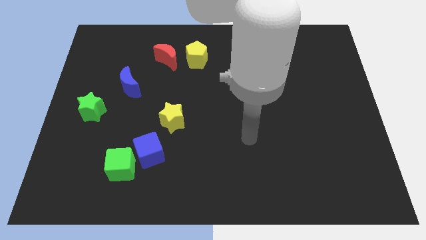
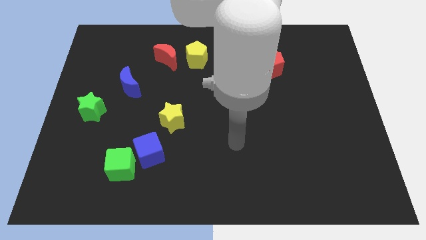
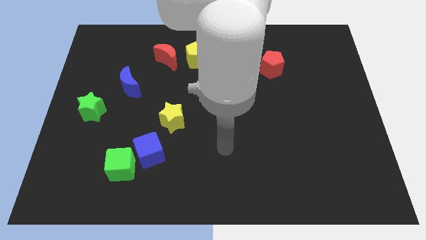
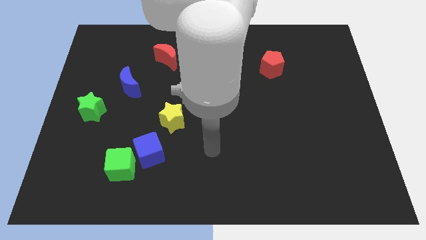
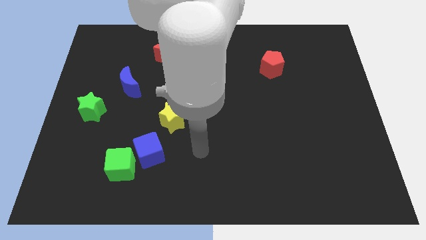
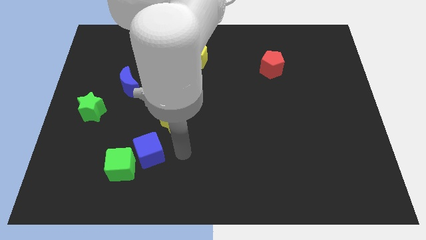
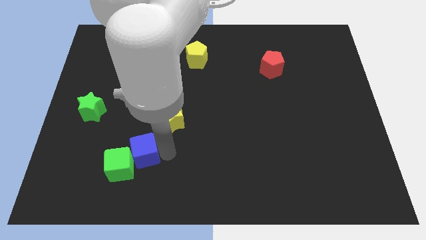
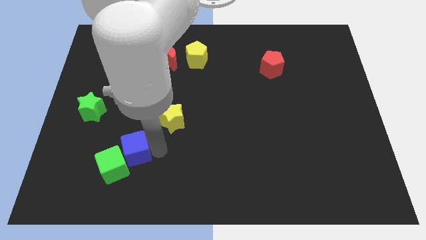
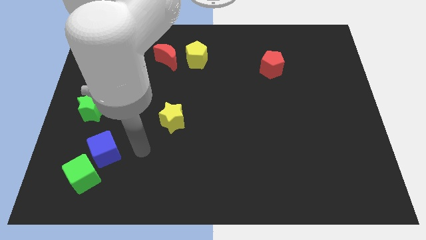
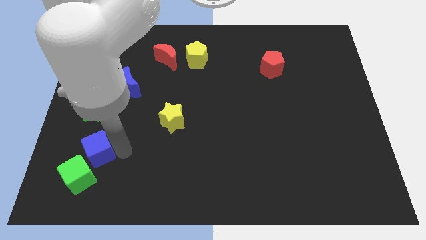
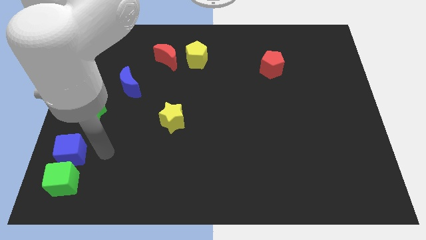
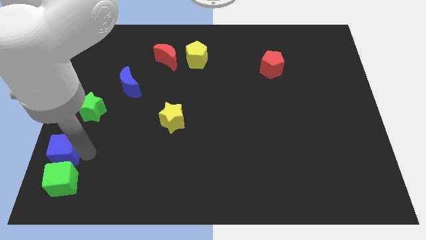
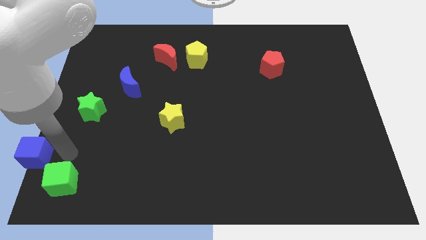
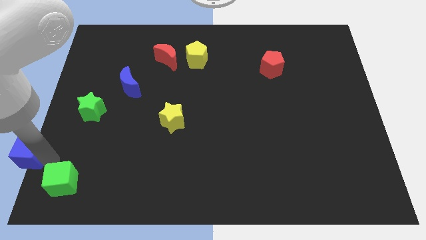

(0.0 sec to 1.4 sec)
move the green cube away from the blue cube

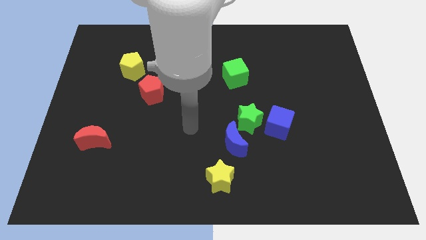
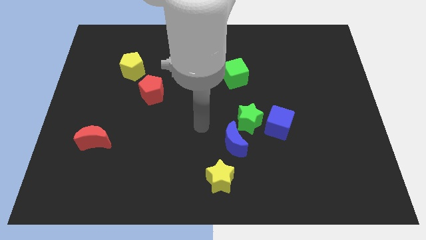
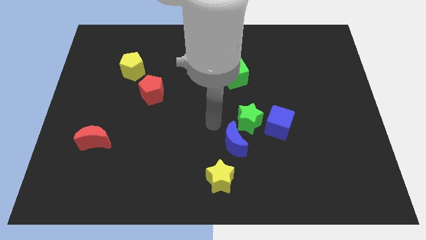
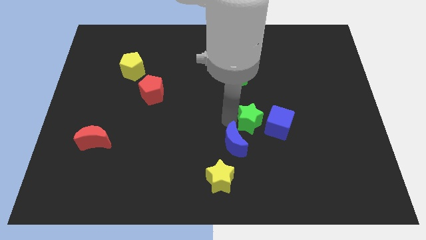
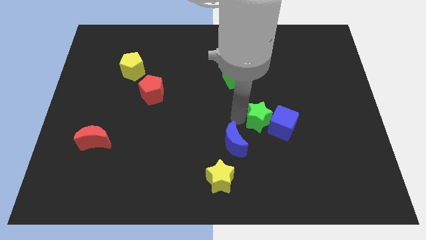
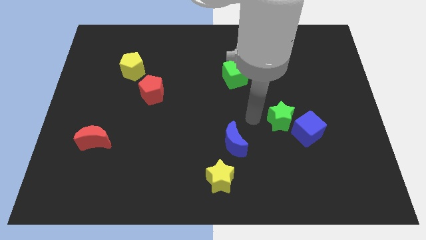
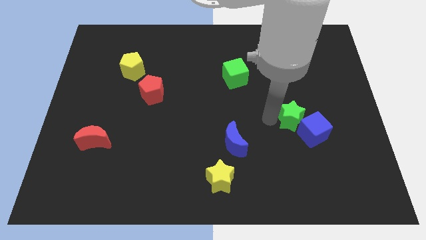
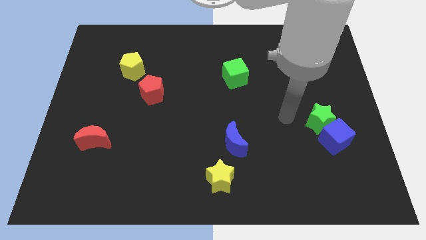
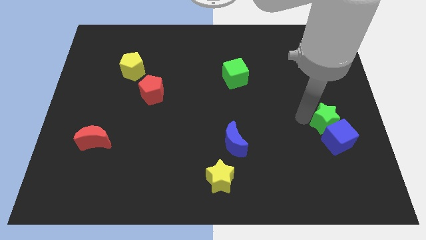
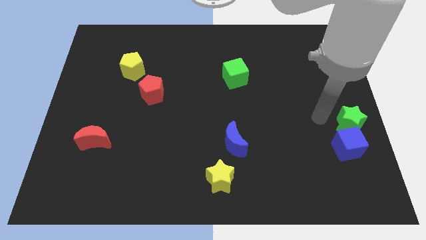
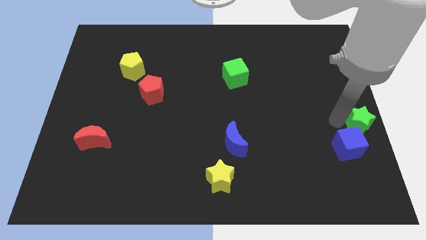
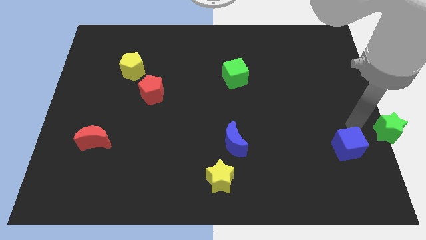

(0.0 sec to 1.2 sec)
pull the blue cube apart from the green star

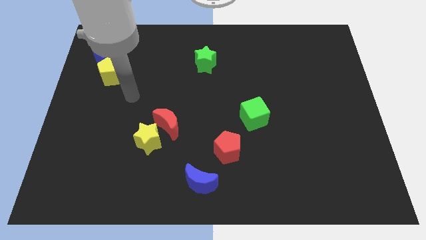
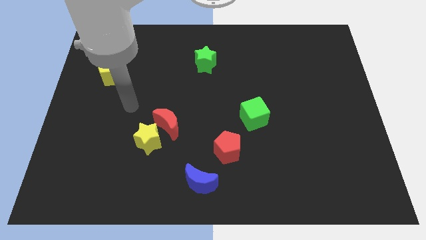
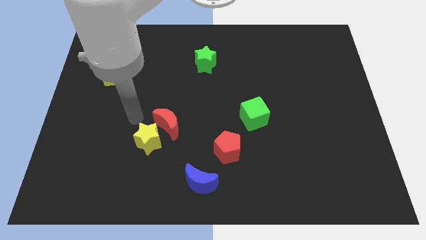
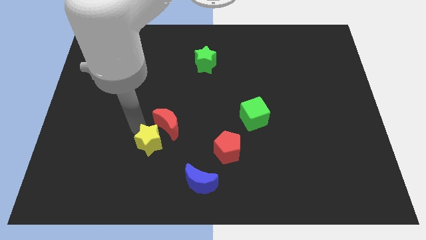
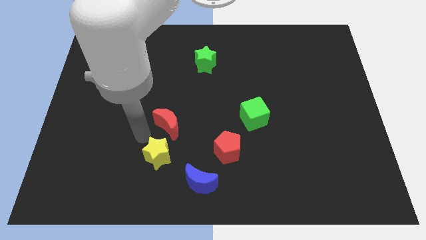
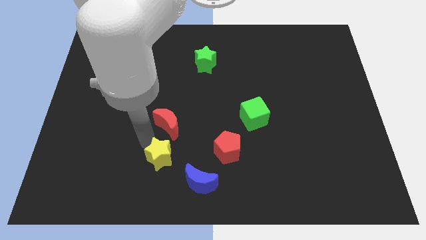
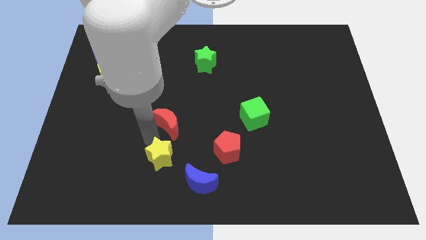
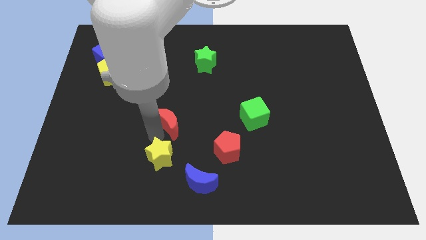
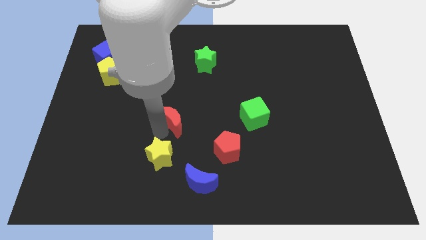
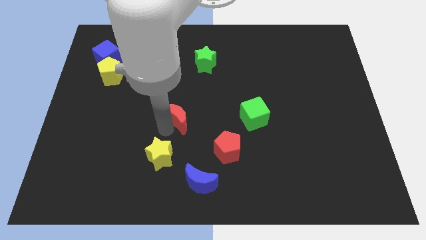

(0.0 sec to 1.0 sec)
move the red moon away from the yellow star

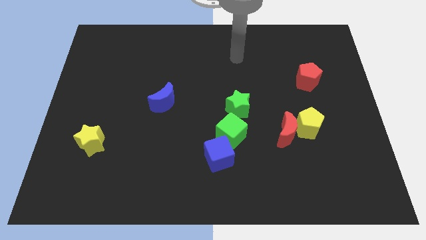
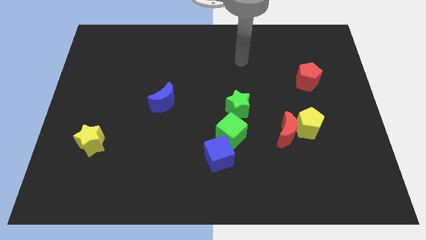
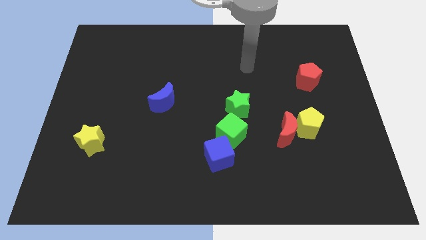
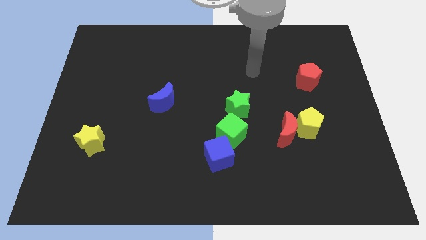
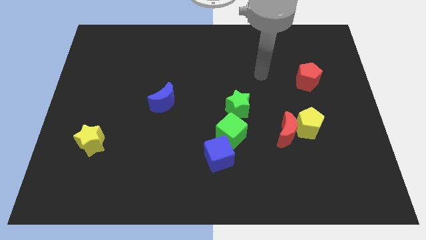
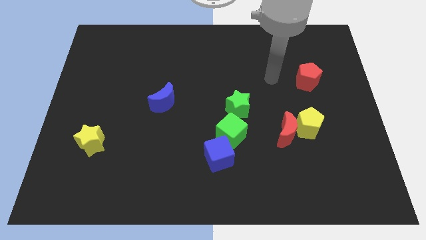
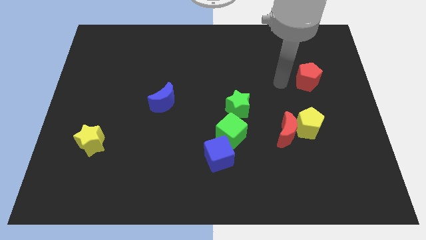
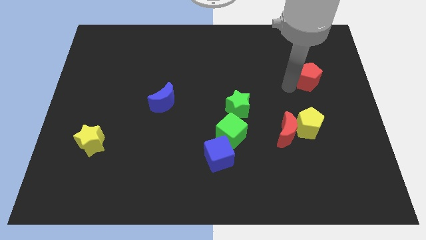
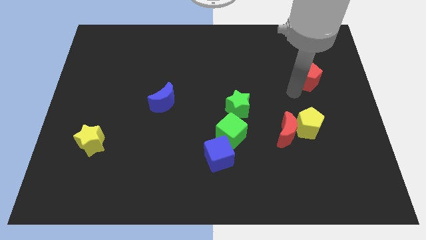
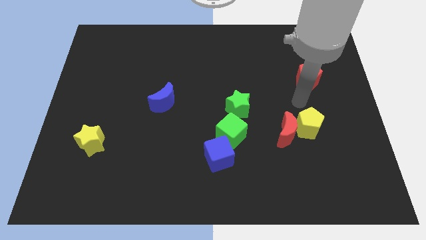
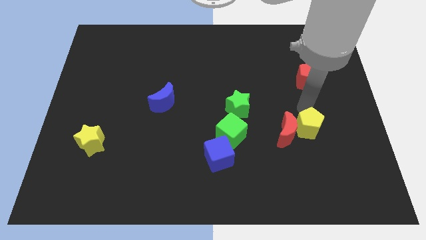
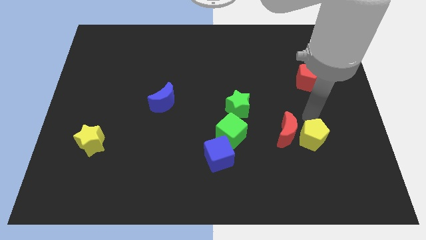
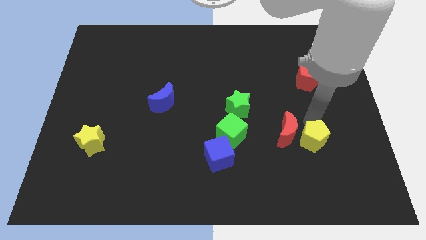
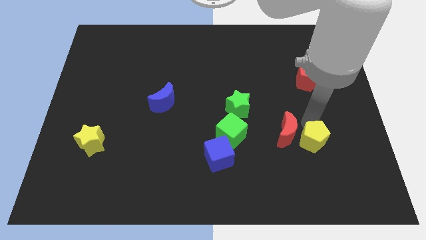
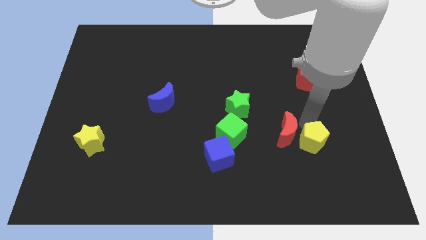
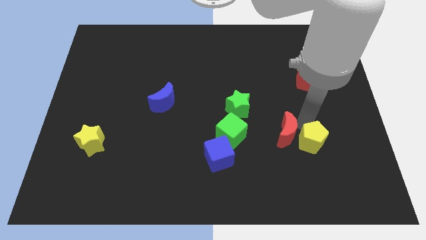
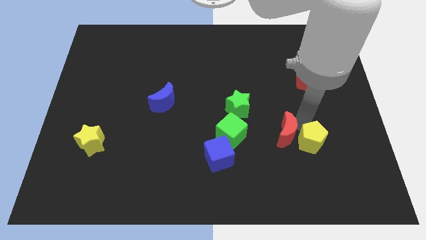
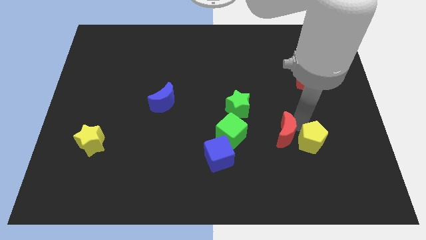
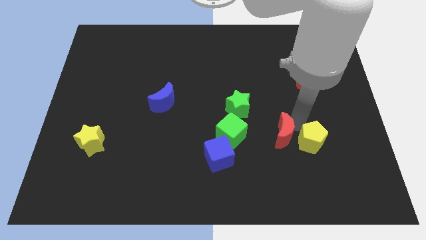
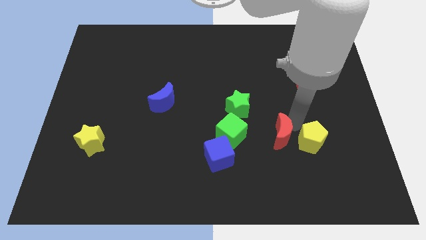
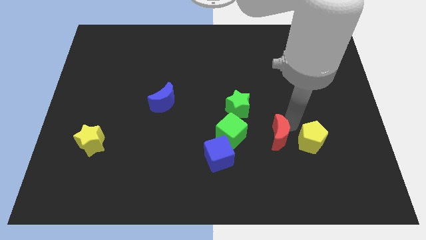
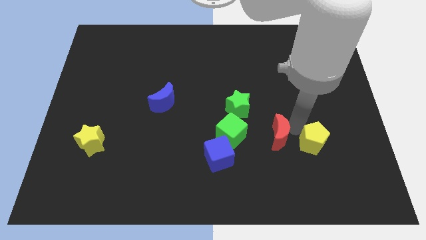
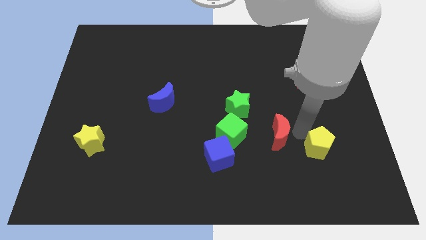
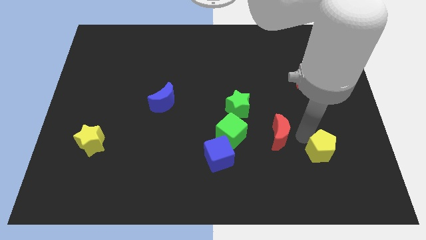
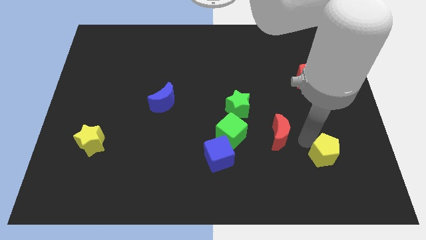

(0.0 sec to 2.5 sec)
pull the red moon apart from the yellow pentagon

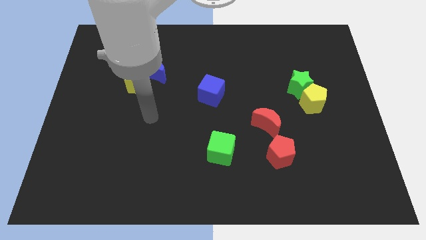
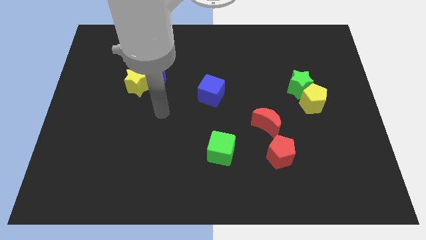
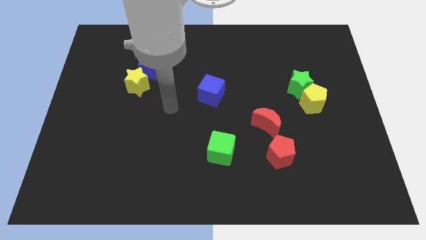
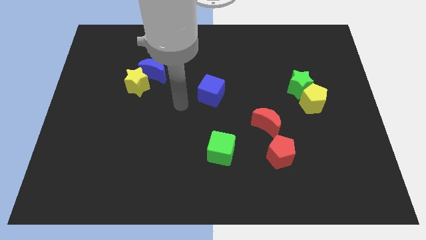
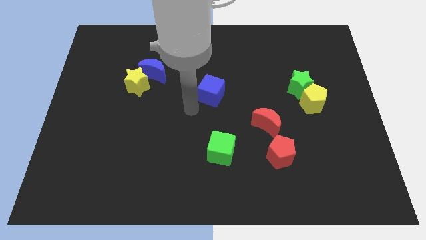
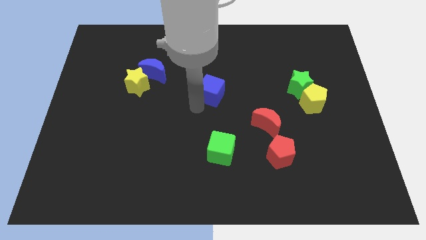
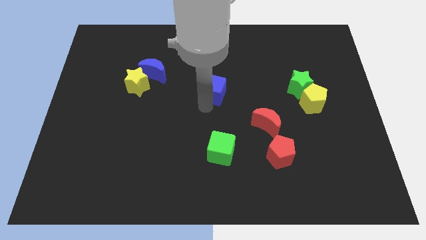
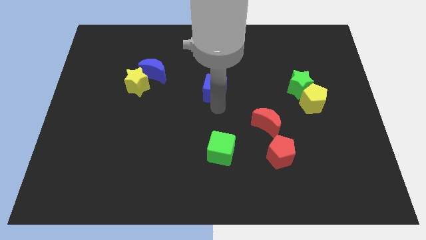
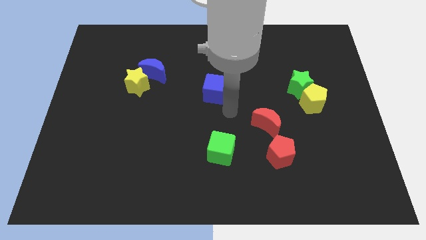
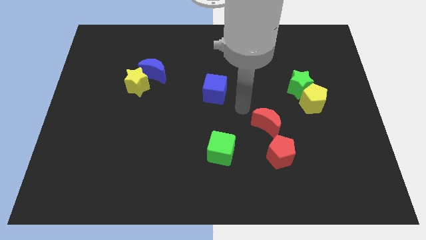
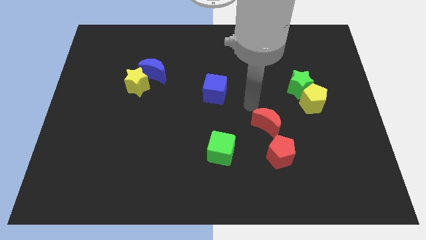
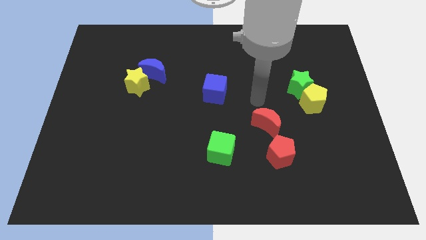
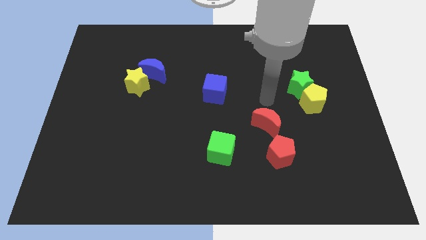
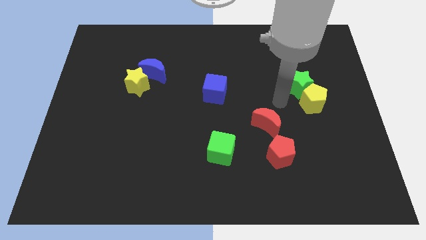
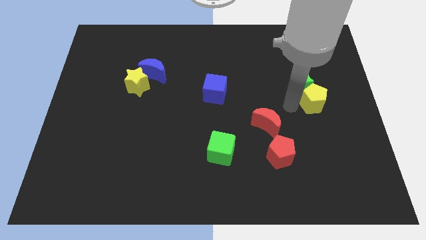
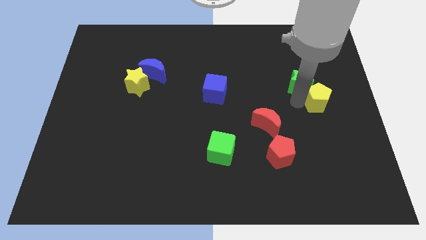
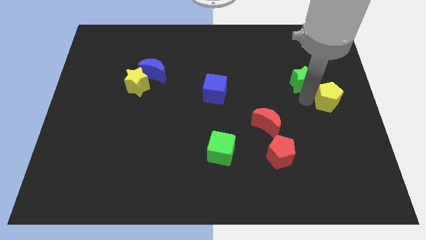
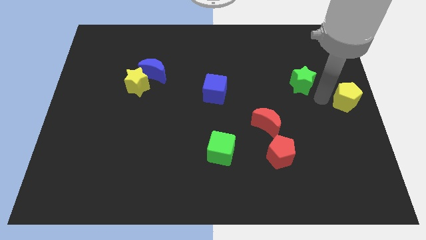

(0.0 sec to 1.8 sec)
pull the green star apart from the yellow pentagon

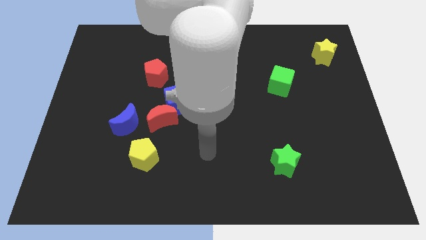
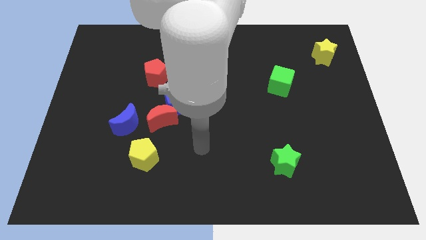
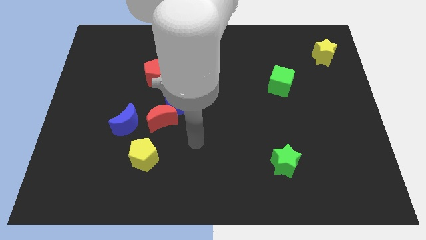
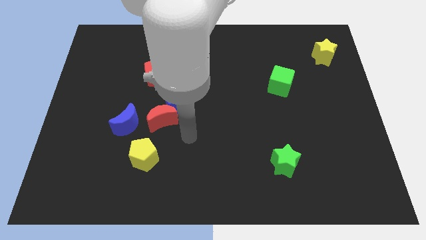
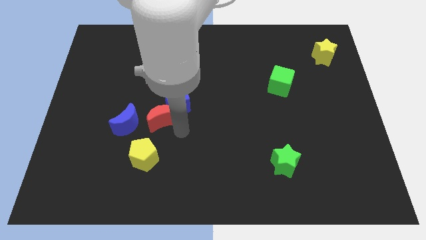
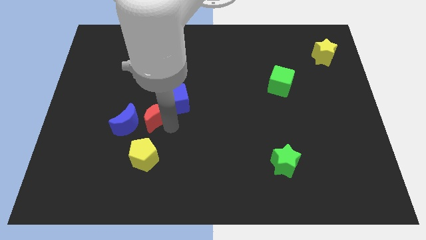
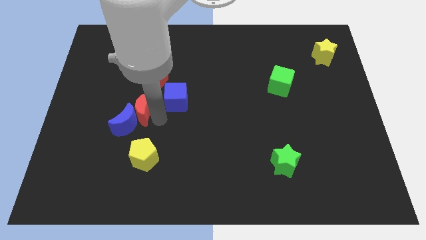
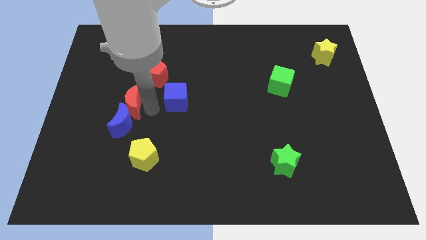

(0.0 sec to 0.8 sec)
move the blue cube away from the red moon

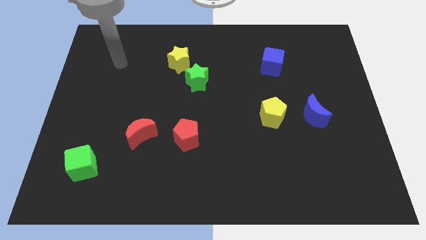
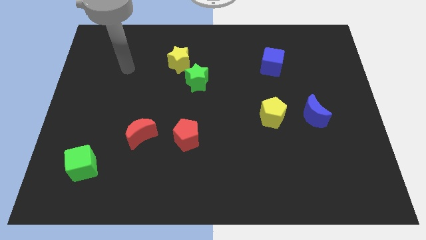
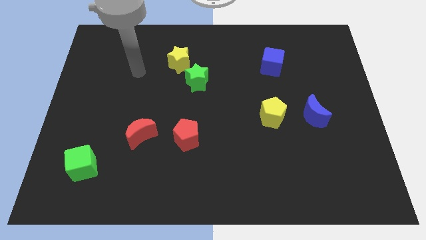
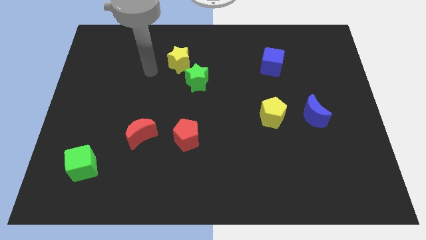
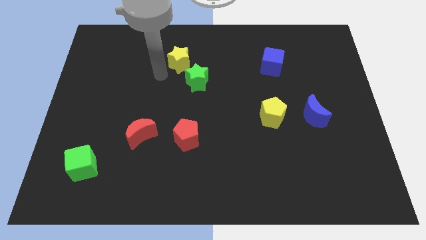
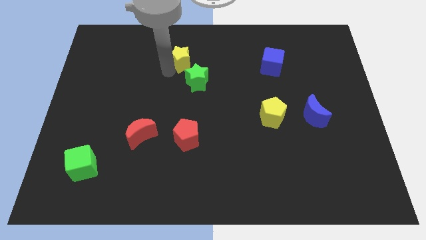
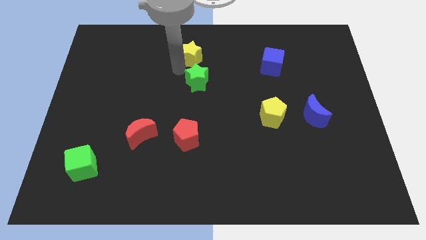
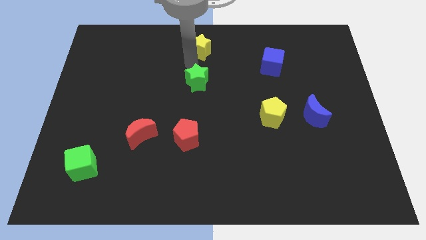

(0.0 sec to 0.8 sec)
separate the green star from the yellow star
